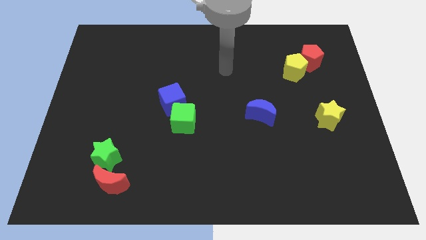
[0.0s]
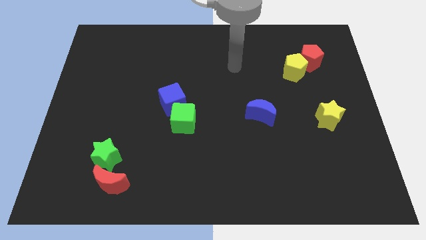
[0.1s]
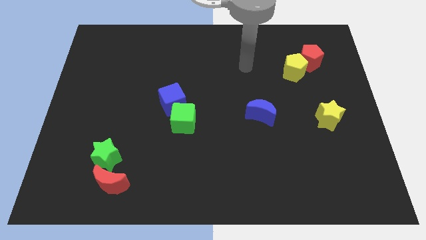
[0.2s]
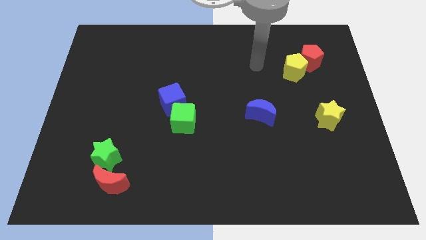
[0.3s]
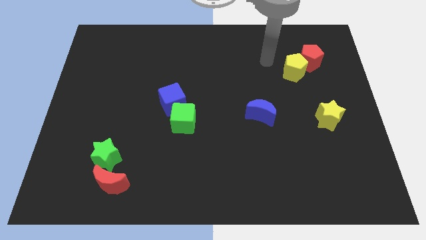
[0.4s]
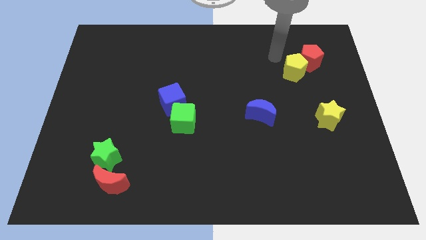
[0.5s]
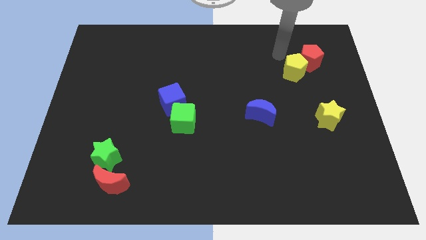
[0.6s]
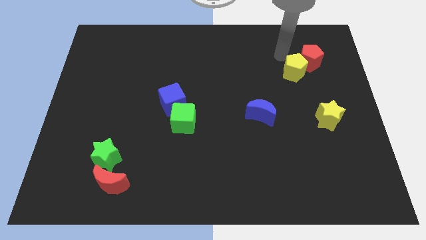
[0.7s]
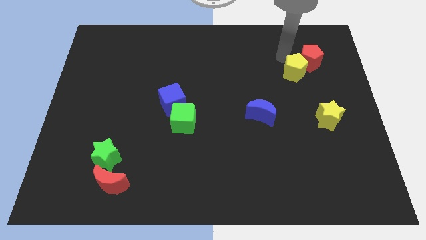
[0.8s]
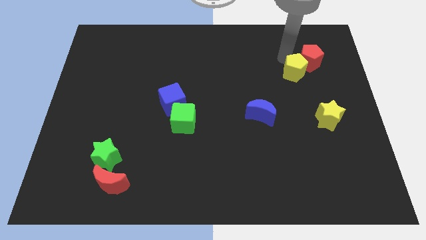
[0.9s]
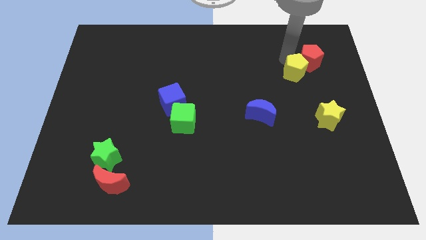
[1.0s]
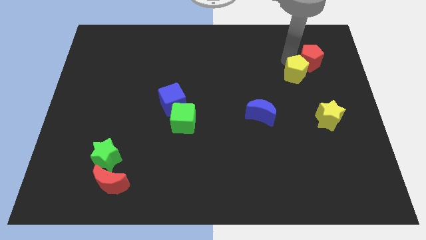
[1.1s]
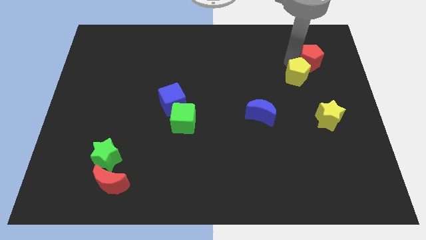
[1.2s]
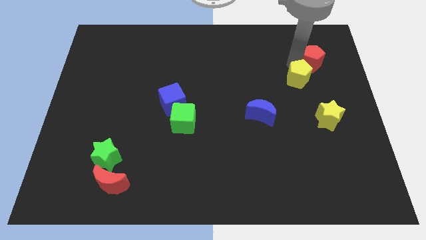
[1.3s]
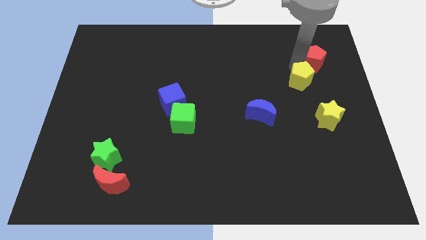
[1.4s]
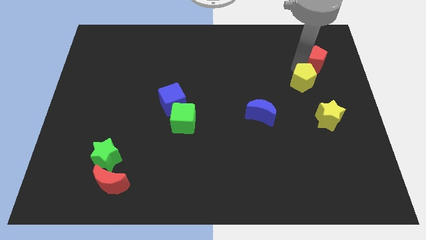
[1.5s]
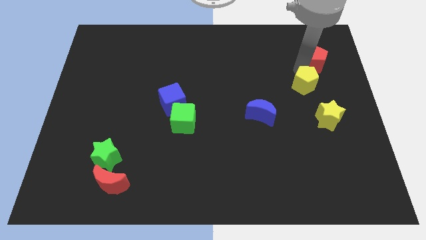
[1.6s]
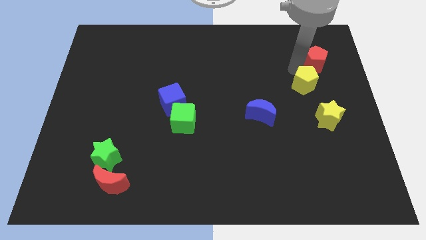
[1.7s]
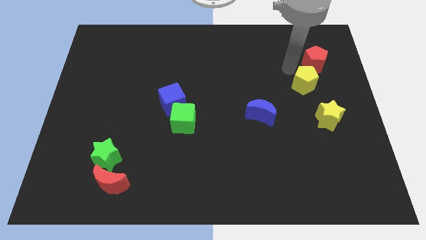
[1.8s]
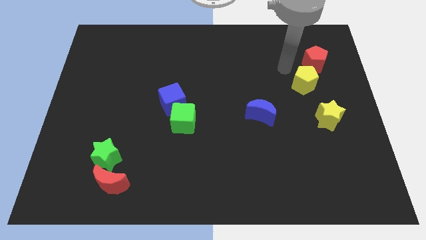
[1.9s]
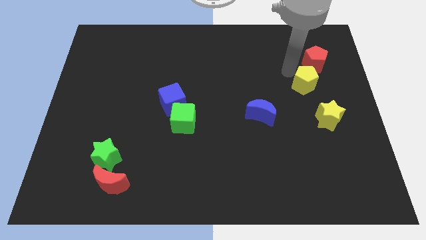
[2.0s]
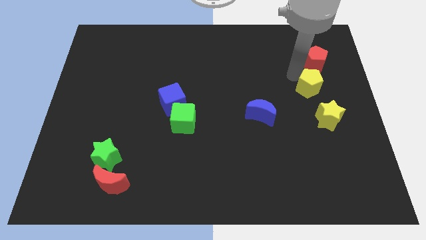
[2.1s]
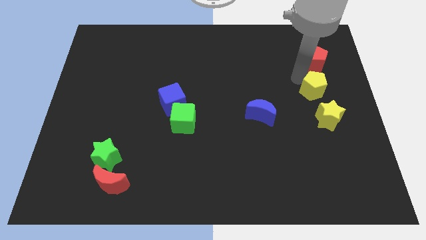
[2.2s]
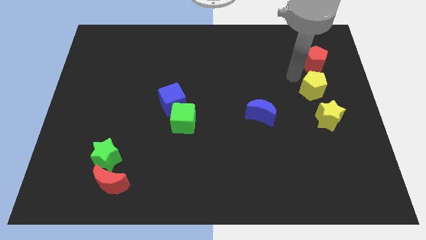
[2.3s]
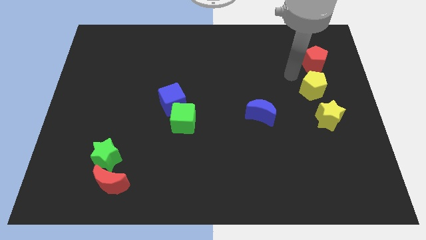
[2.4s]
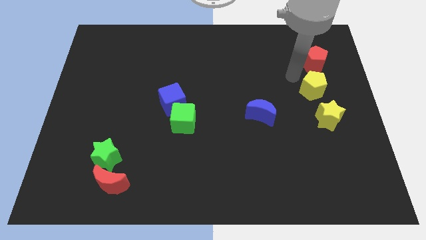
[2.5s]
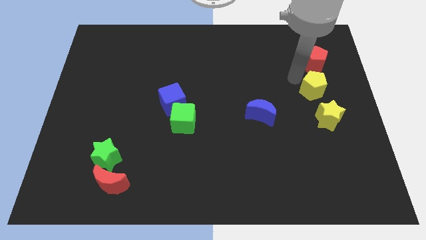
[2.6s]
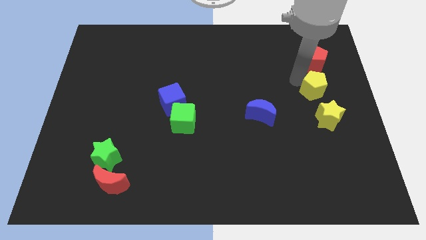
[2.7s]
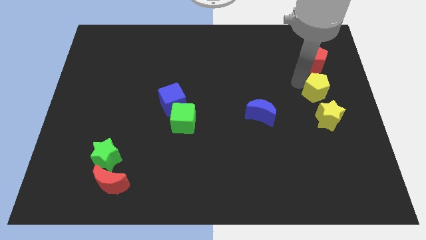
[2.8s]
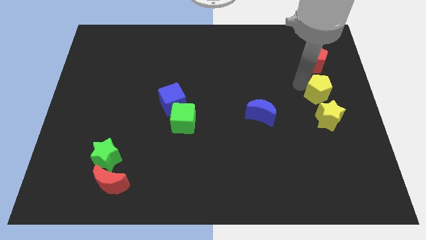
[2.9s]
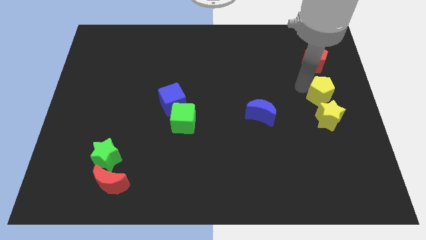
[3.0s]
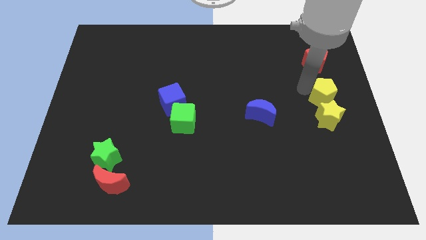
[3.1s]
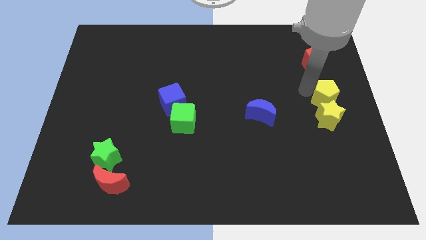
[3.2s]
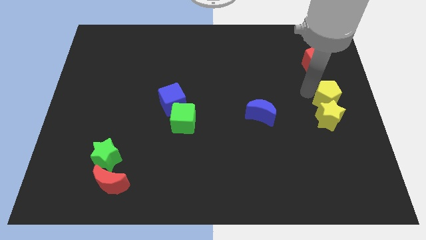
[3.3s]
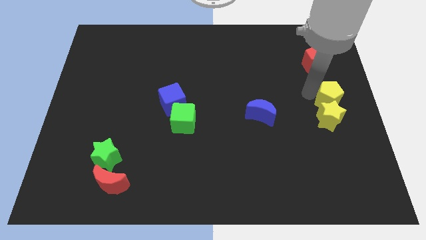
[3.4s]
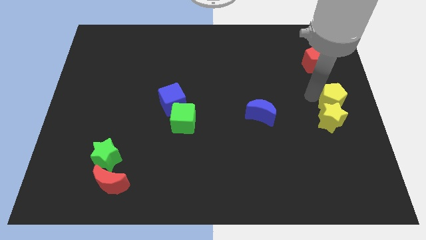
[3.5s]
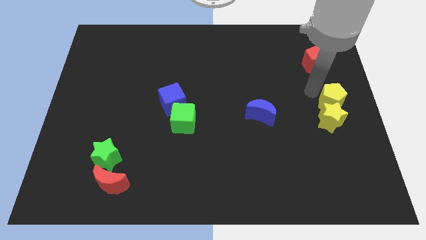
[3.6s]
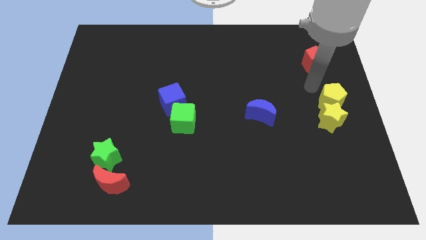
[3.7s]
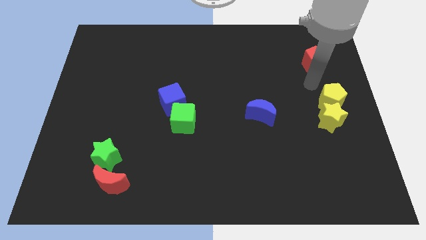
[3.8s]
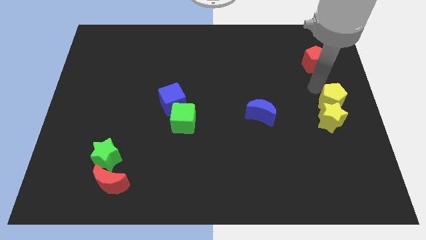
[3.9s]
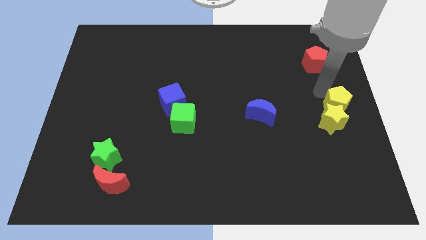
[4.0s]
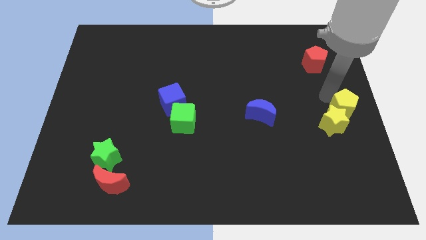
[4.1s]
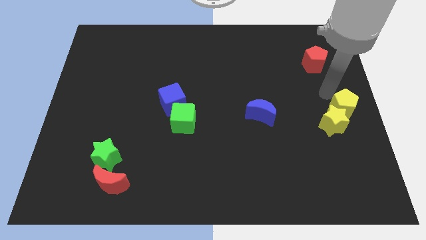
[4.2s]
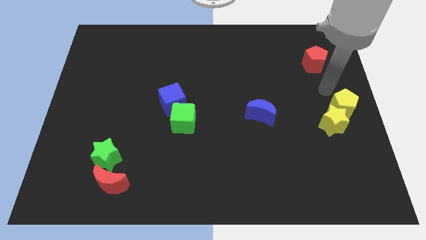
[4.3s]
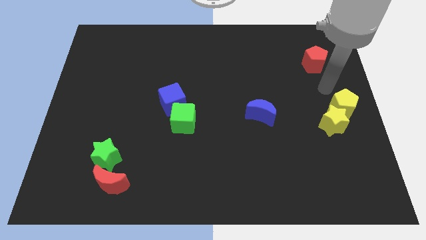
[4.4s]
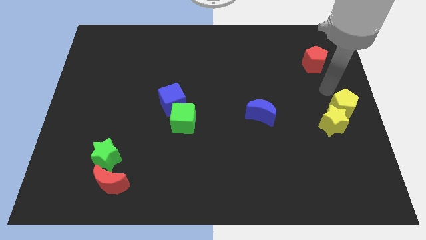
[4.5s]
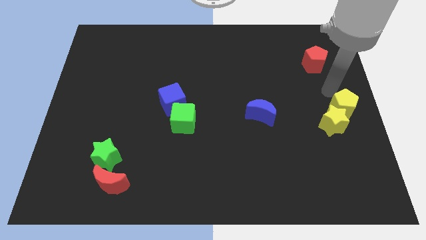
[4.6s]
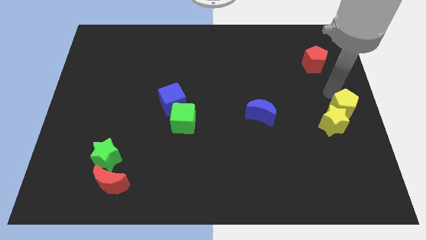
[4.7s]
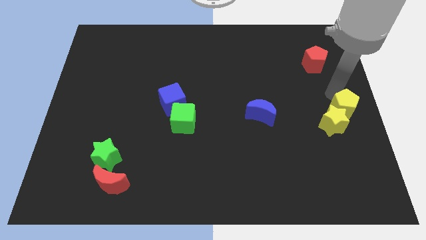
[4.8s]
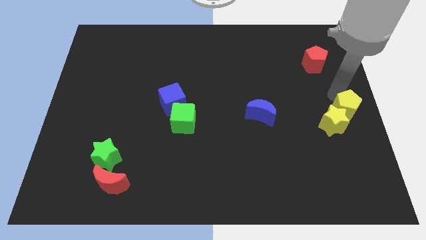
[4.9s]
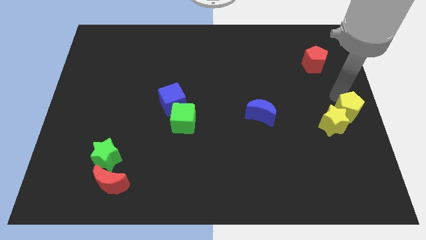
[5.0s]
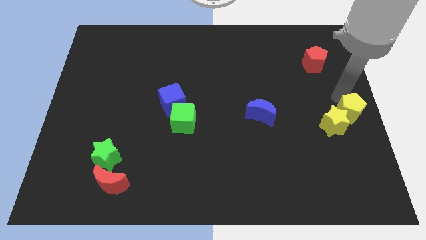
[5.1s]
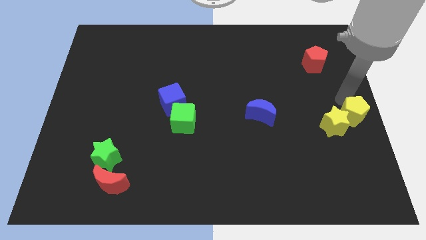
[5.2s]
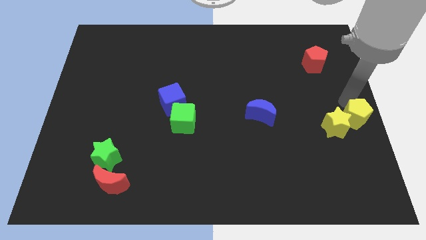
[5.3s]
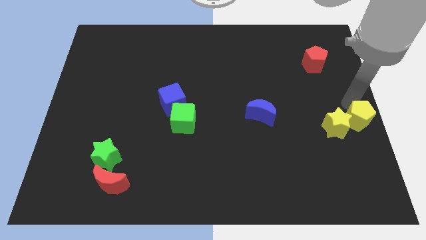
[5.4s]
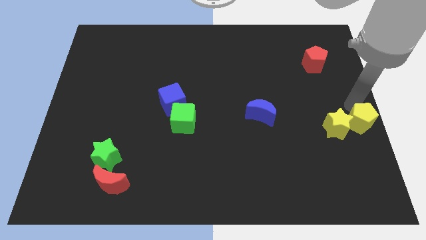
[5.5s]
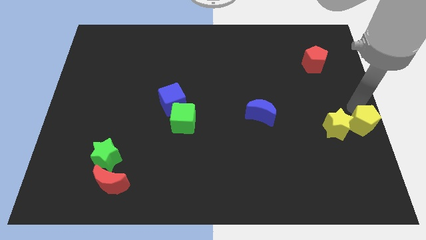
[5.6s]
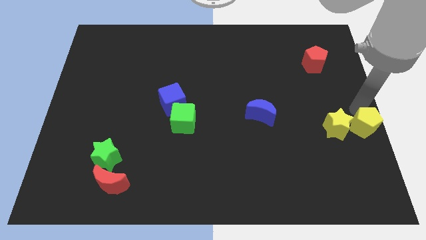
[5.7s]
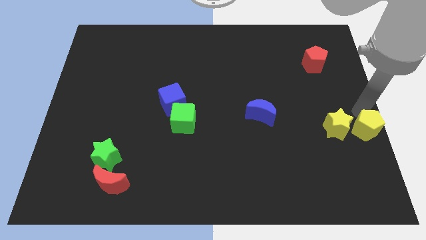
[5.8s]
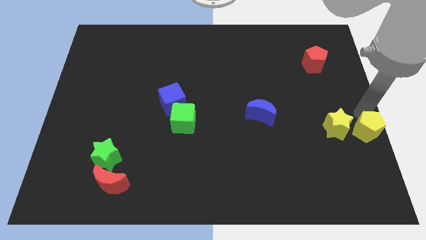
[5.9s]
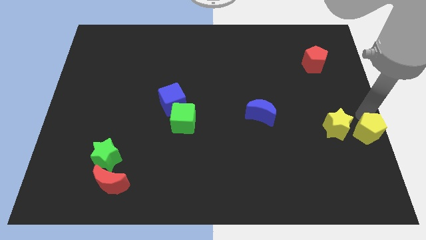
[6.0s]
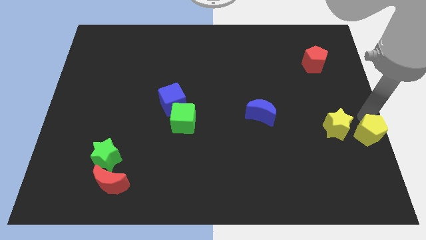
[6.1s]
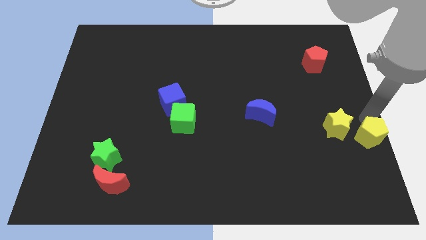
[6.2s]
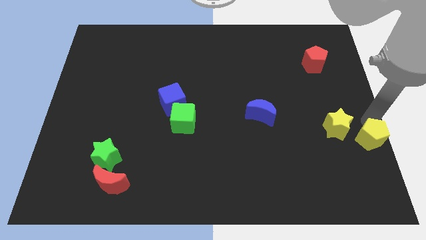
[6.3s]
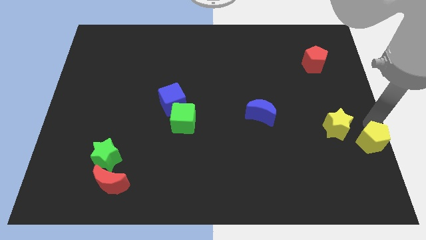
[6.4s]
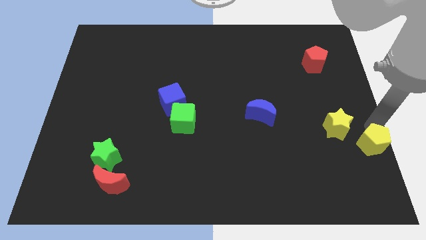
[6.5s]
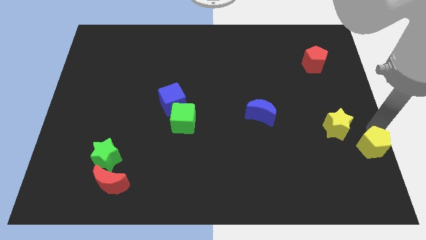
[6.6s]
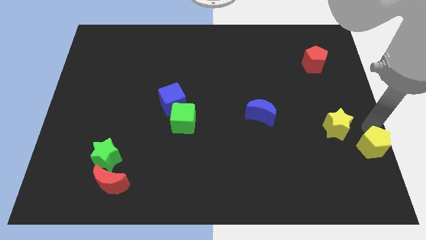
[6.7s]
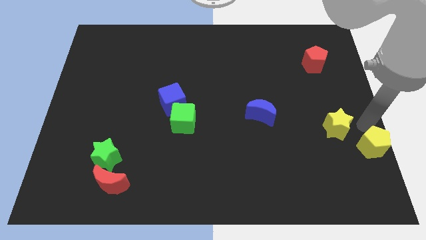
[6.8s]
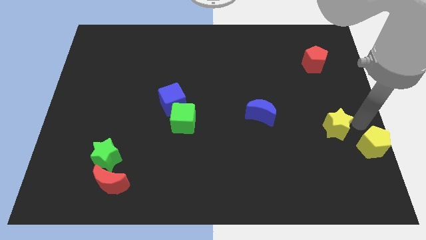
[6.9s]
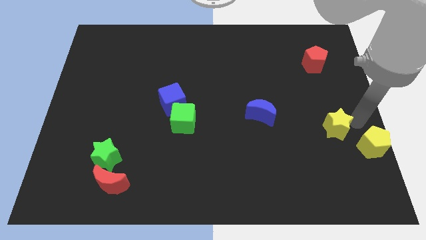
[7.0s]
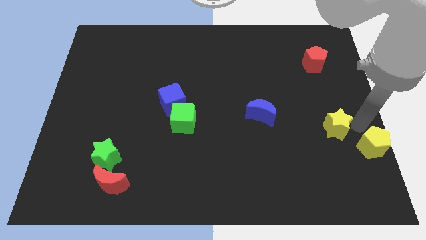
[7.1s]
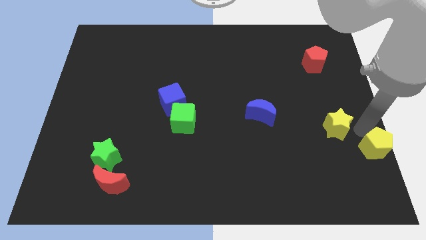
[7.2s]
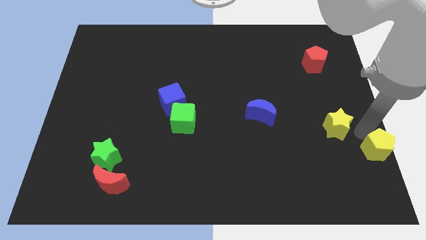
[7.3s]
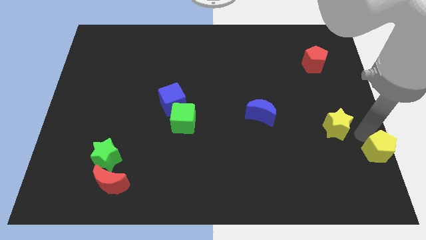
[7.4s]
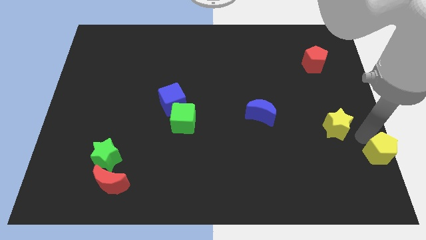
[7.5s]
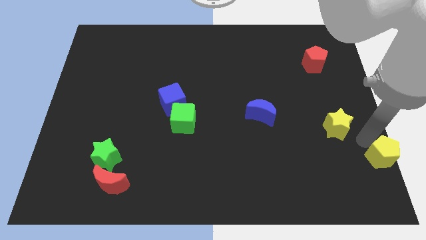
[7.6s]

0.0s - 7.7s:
slide the yellow pentagon to the bottom right
